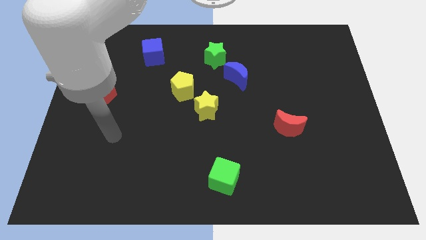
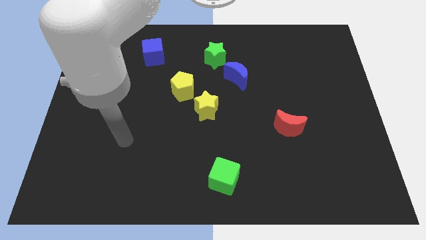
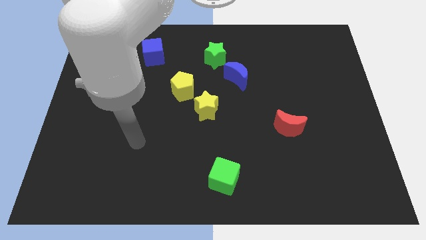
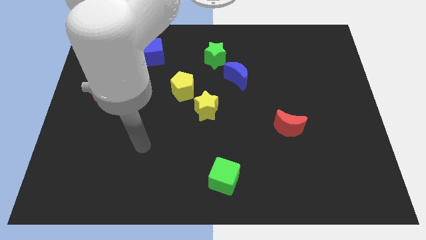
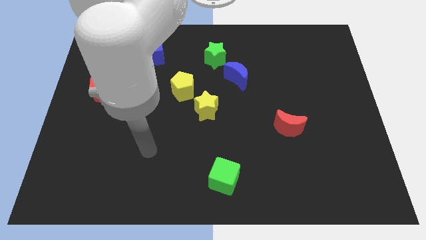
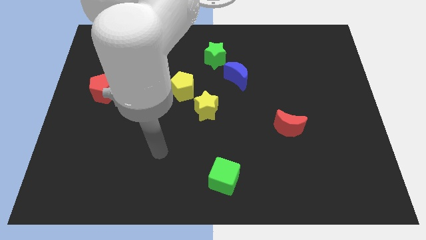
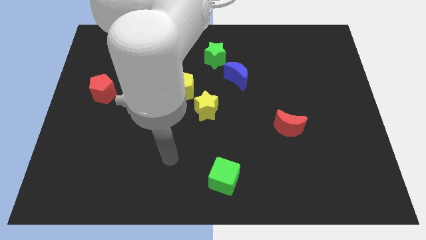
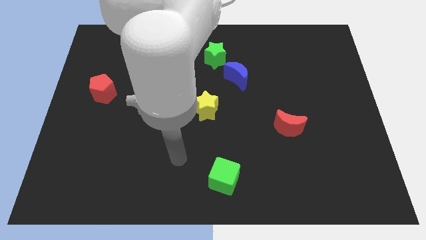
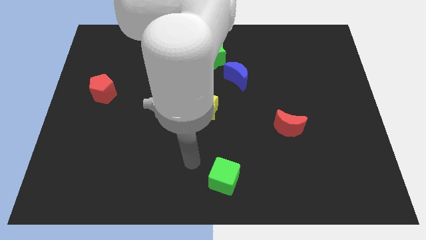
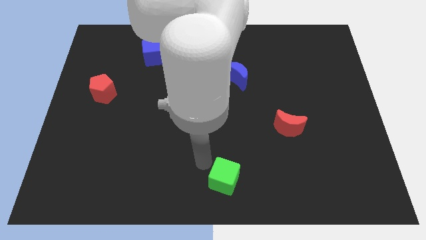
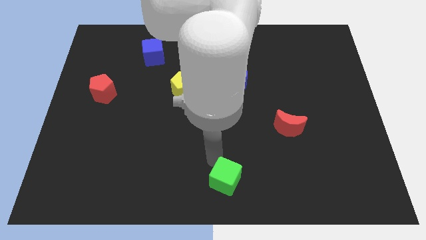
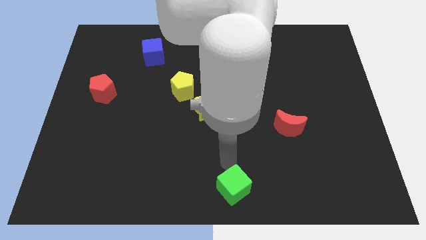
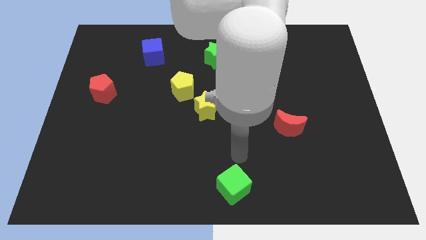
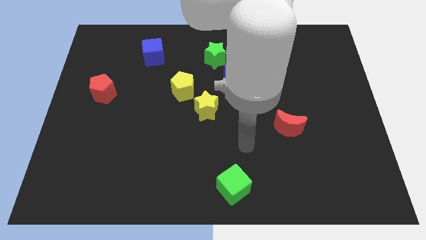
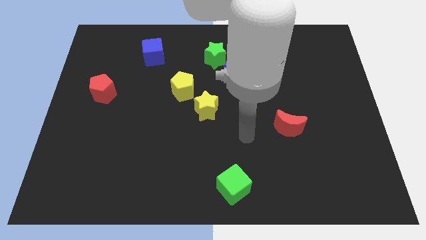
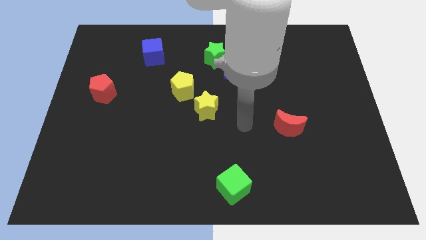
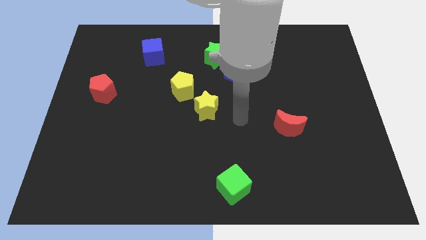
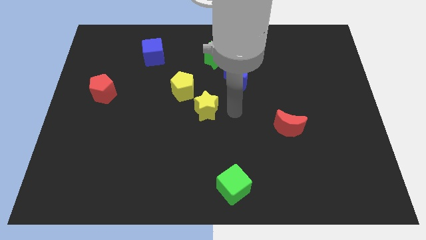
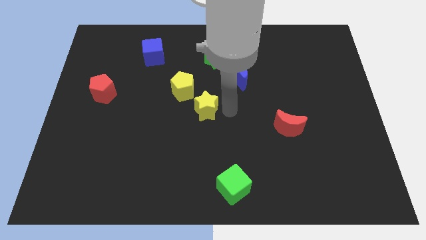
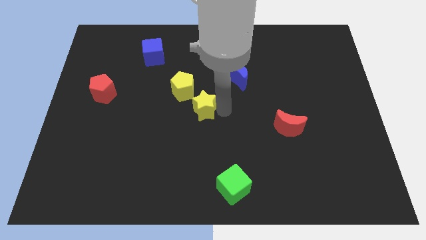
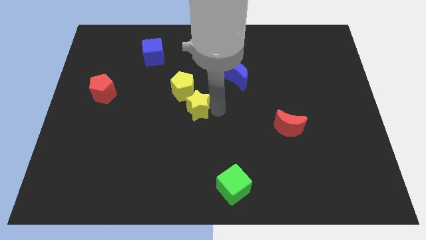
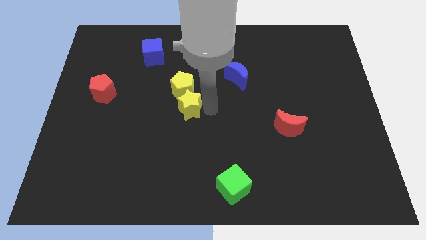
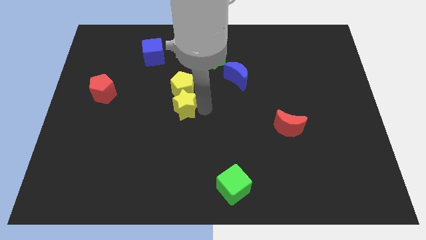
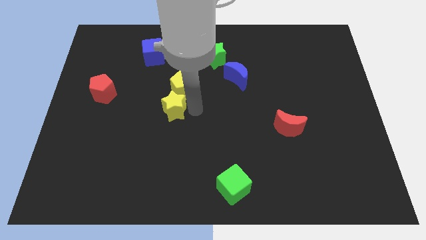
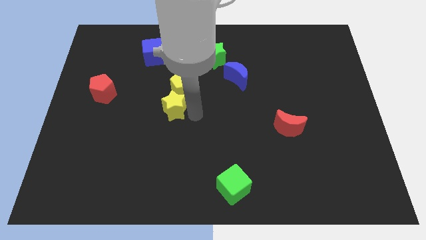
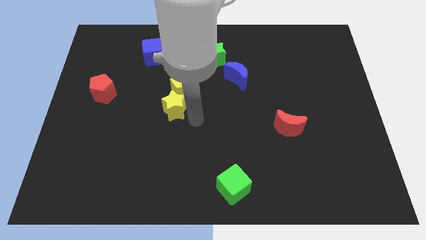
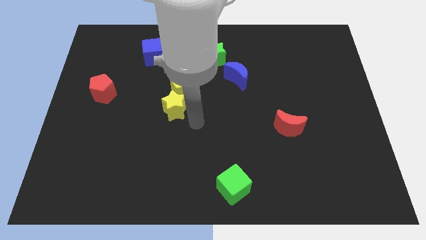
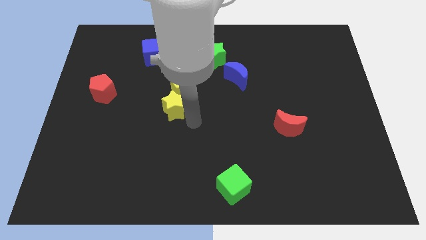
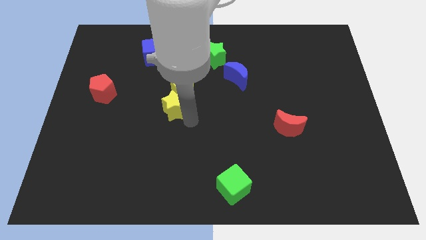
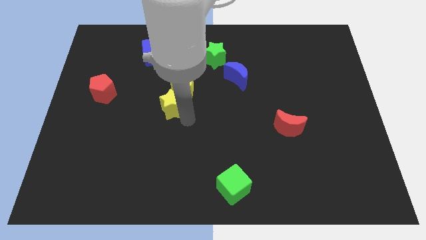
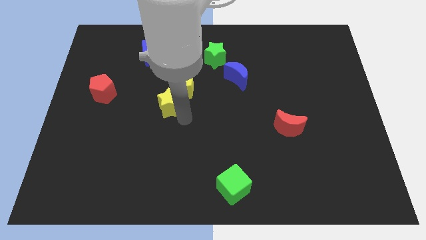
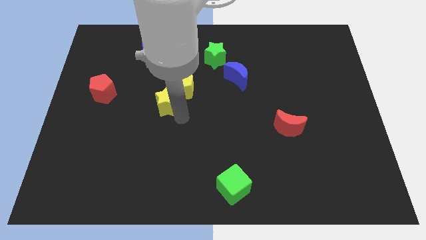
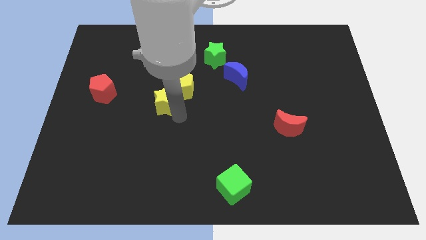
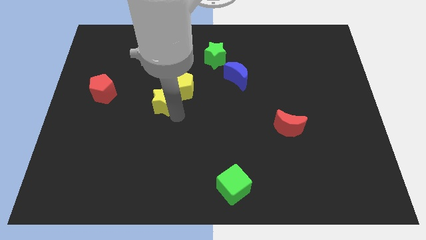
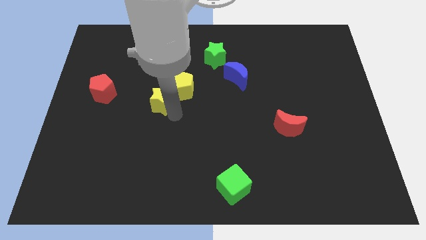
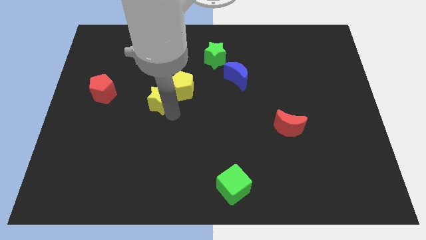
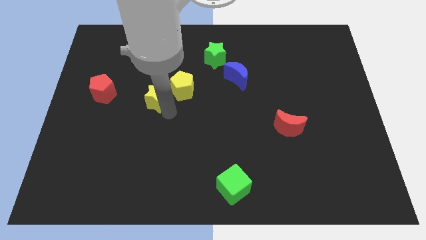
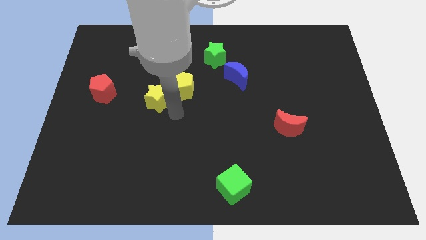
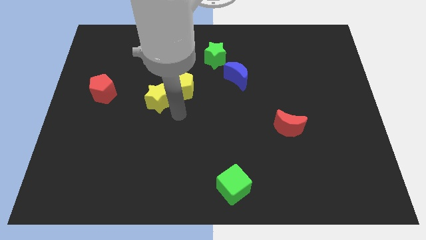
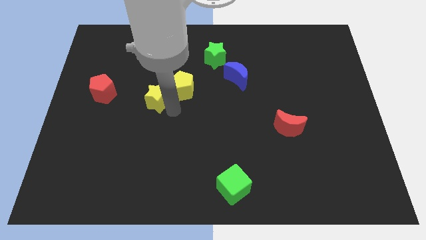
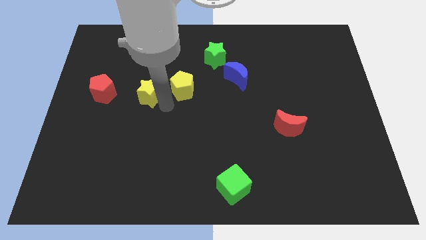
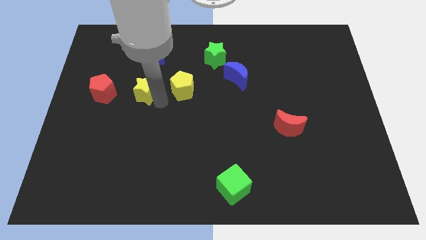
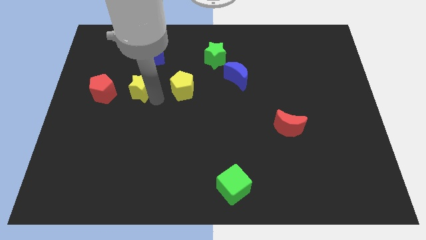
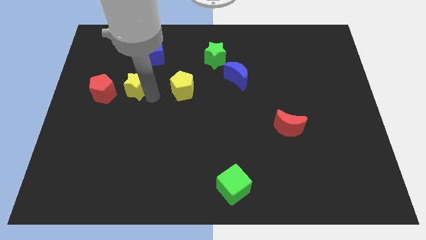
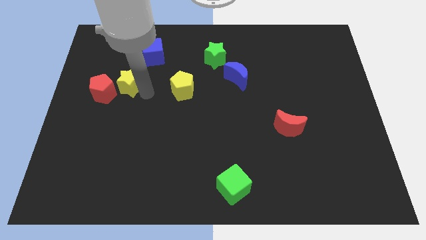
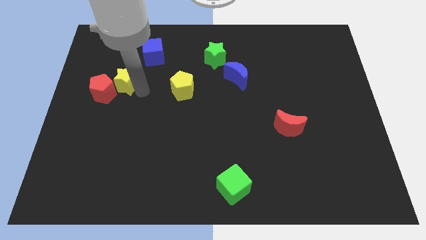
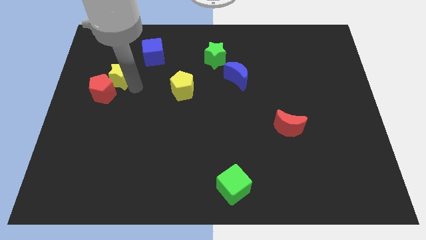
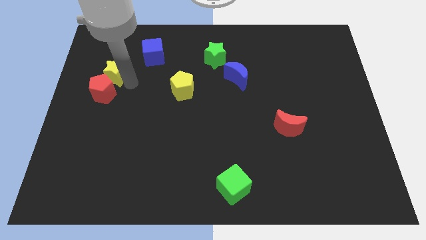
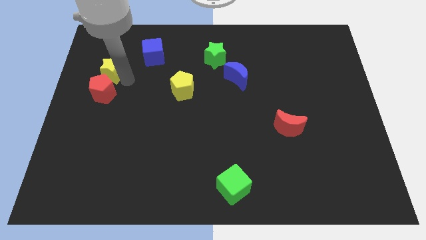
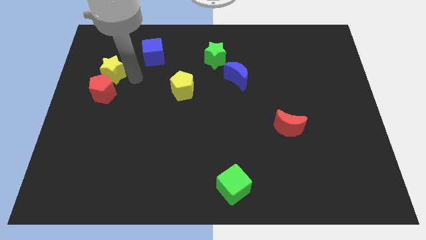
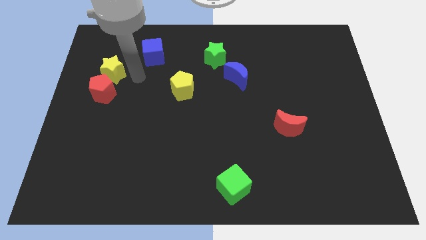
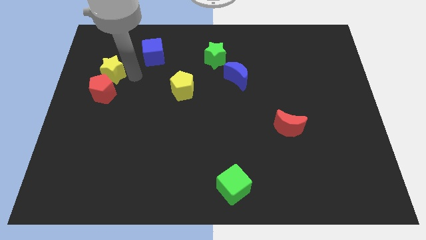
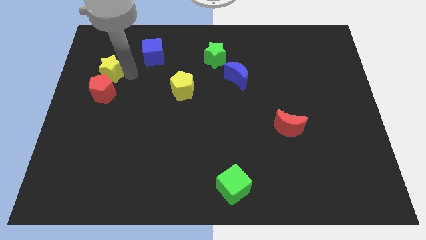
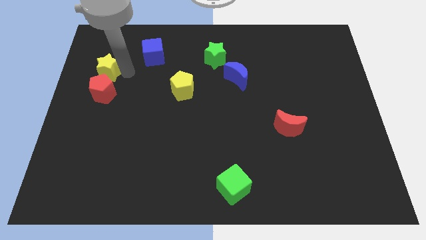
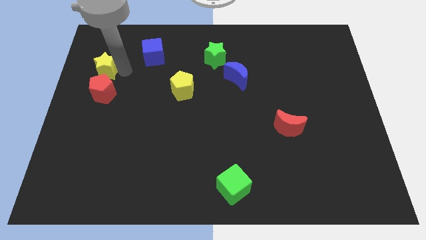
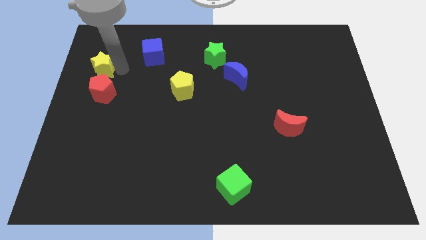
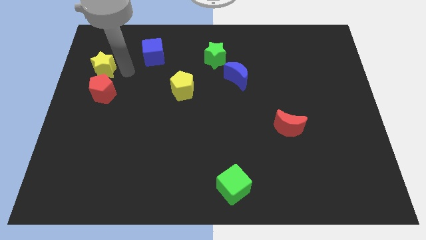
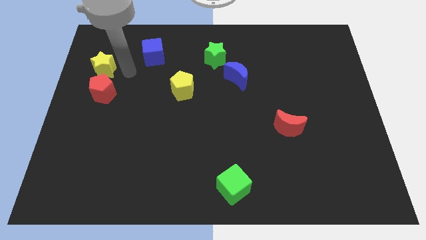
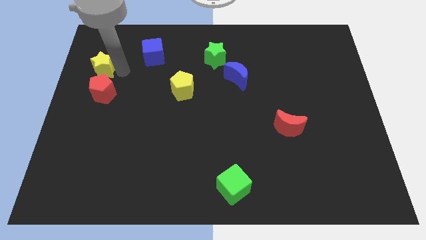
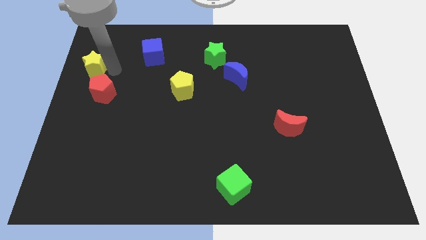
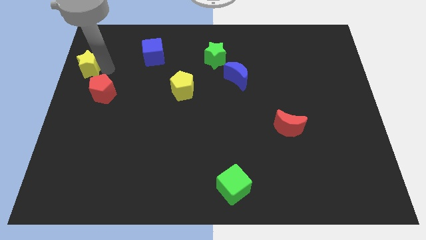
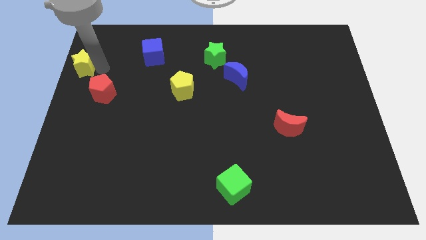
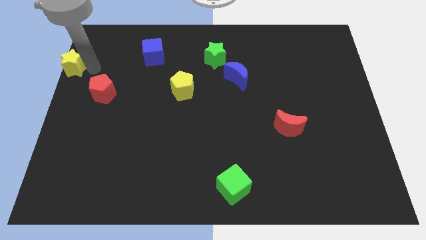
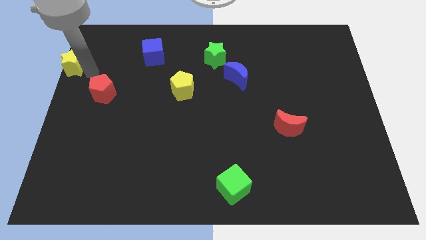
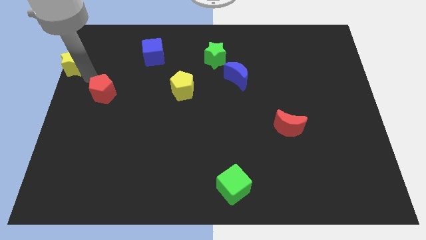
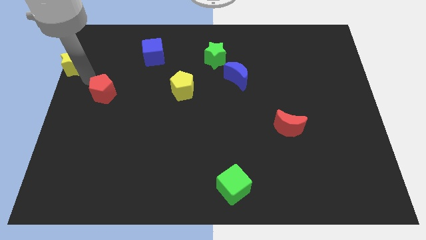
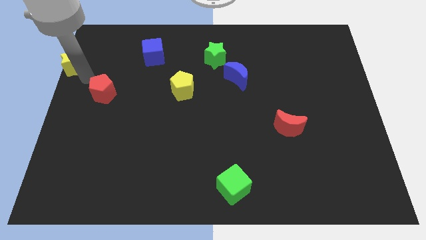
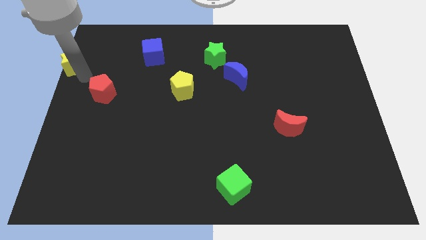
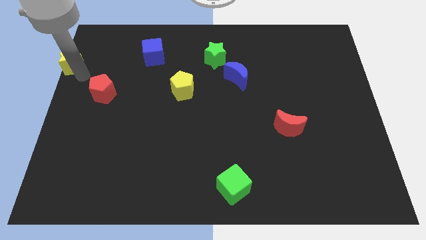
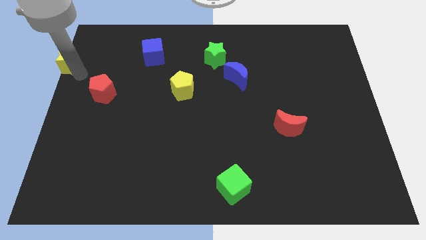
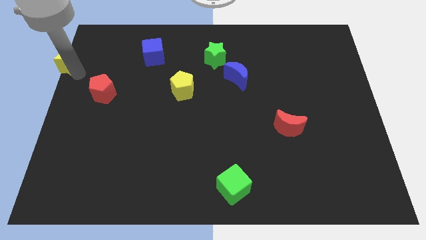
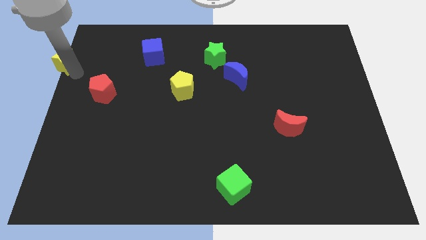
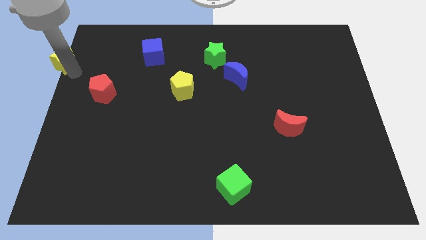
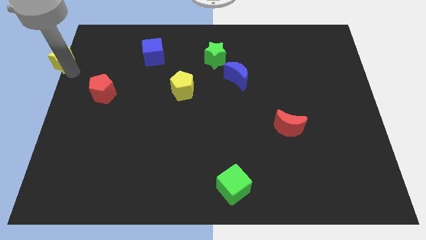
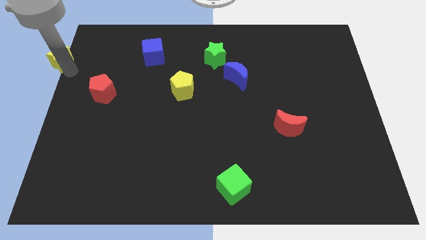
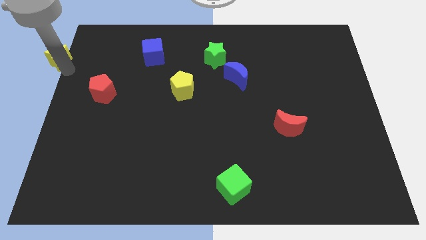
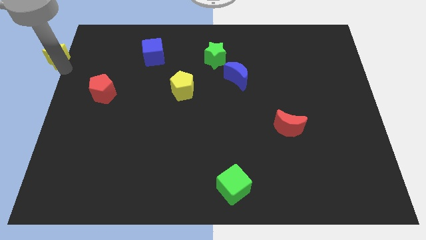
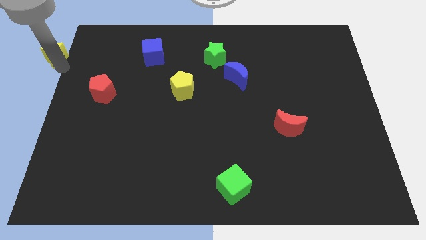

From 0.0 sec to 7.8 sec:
move the yellow star to the upper left corner

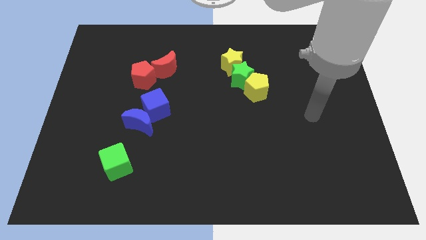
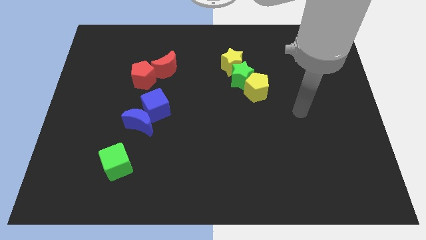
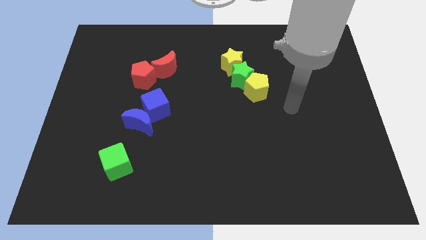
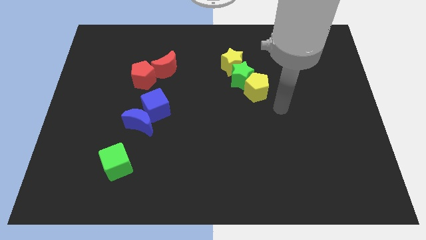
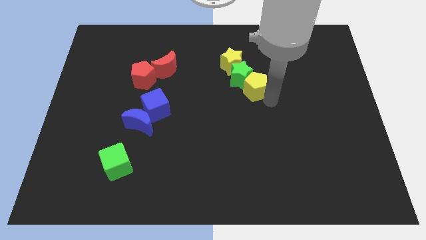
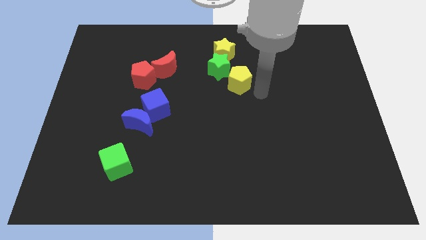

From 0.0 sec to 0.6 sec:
push the yellow star to the top
